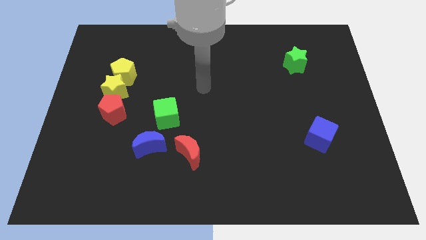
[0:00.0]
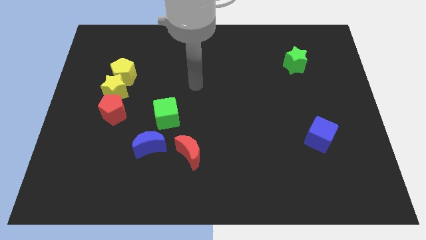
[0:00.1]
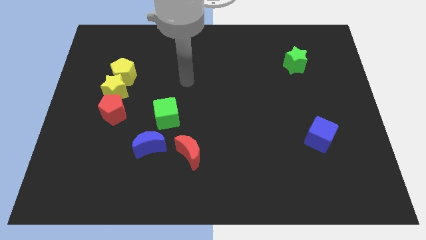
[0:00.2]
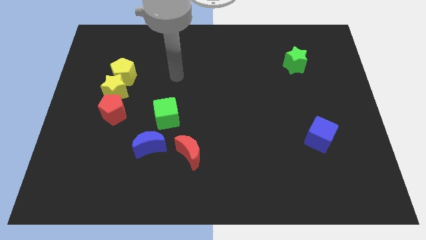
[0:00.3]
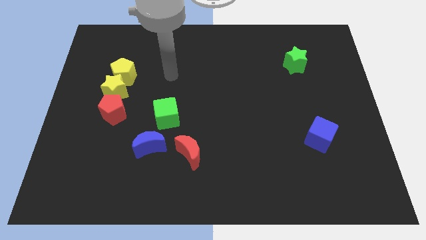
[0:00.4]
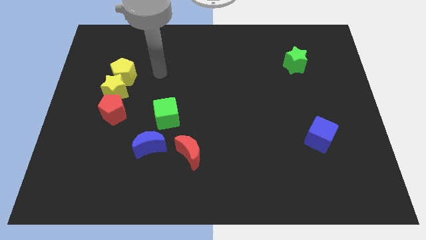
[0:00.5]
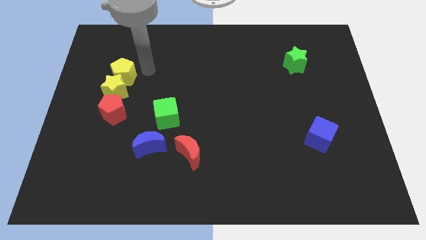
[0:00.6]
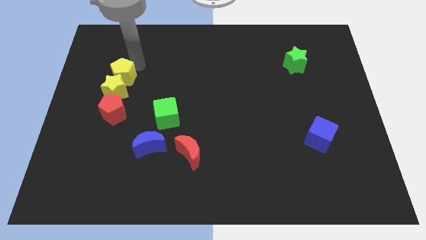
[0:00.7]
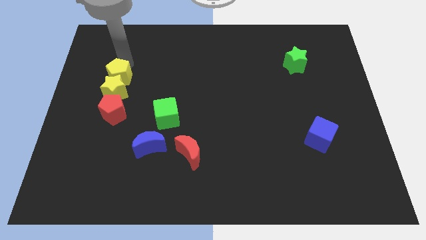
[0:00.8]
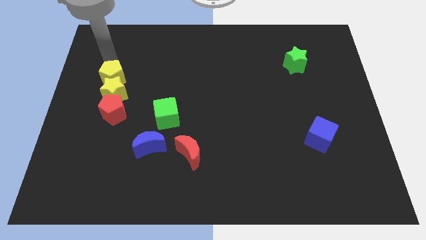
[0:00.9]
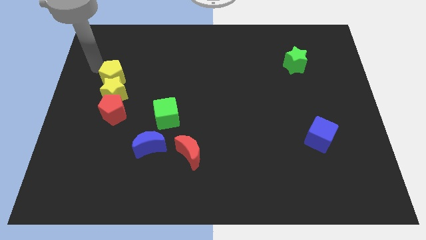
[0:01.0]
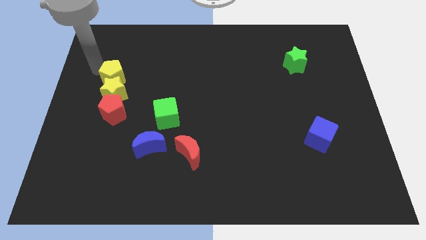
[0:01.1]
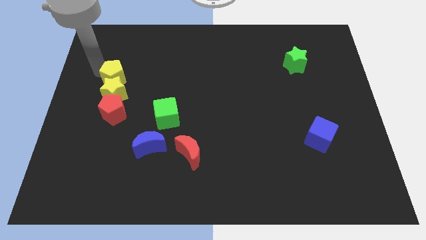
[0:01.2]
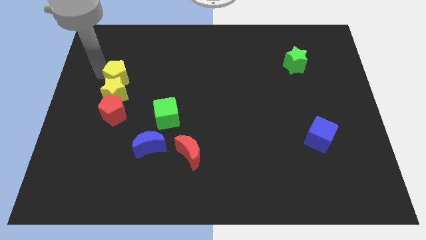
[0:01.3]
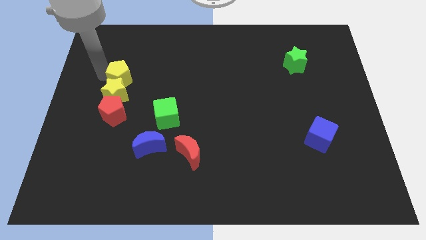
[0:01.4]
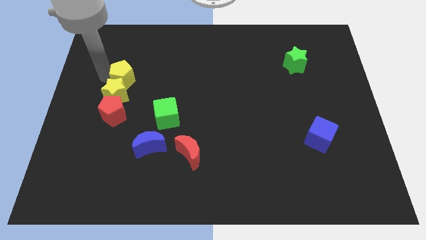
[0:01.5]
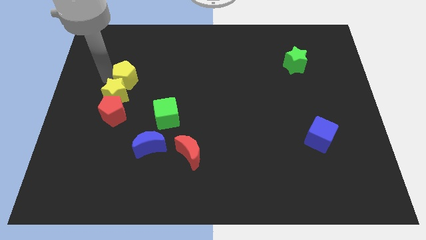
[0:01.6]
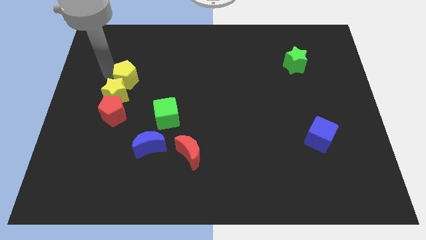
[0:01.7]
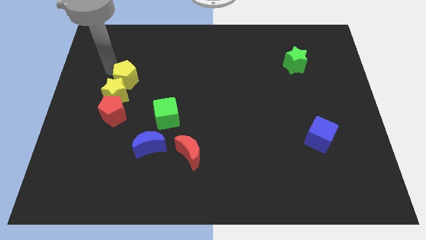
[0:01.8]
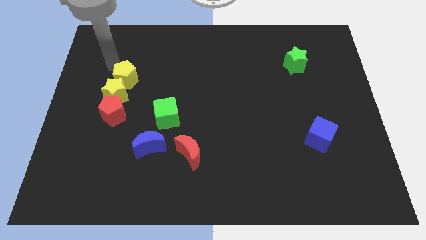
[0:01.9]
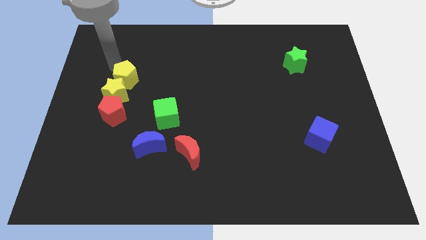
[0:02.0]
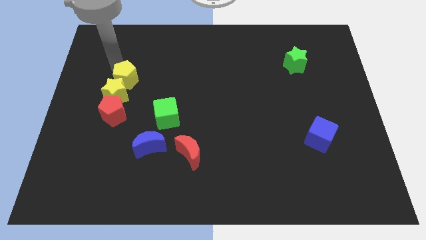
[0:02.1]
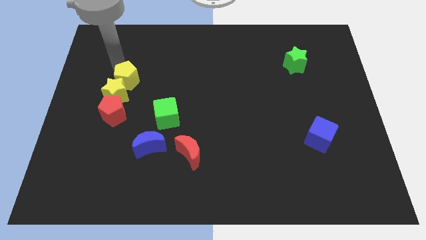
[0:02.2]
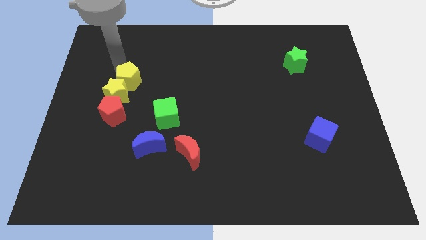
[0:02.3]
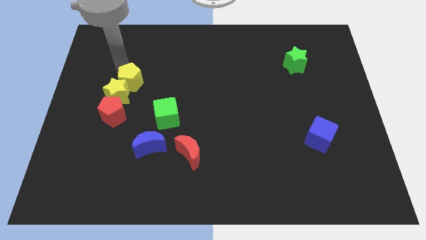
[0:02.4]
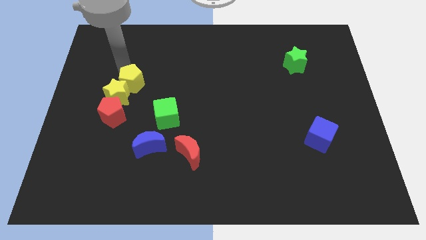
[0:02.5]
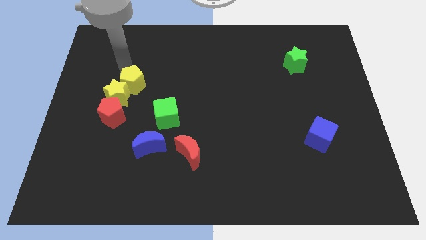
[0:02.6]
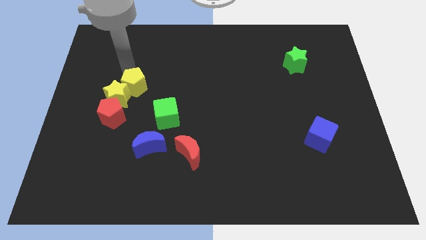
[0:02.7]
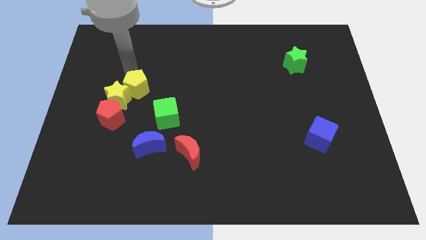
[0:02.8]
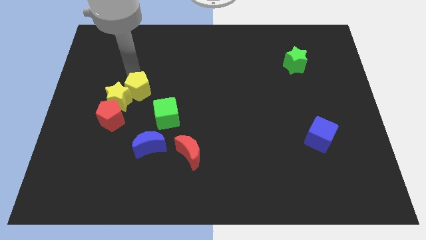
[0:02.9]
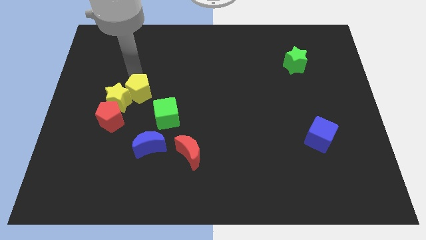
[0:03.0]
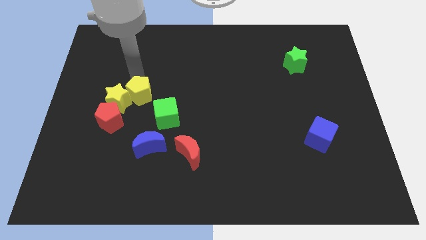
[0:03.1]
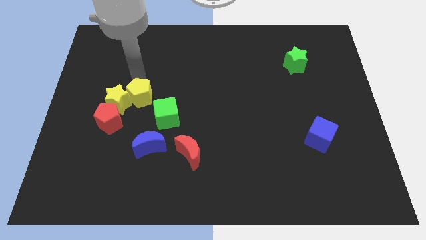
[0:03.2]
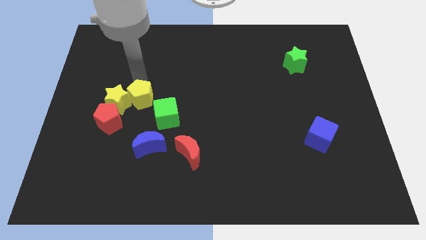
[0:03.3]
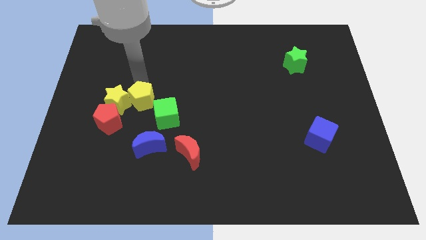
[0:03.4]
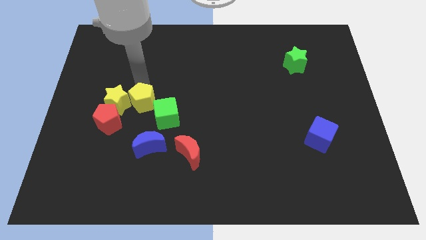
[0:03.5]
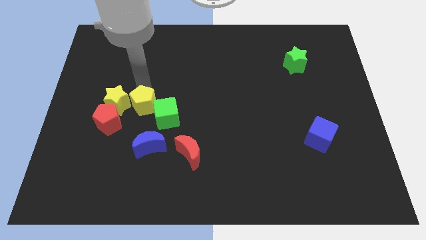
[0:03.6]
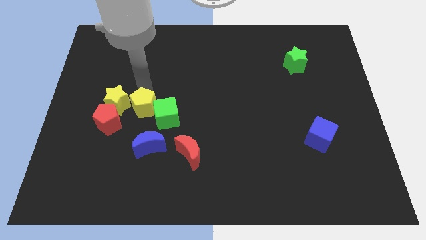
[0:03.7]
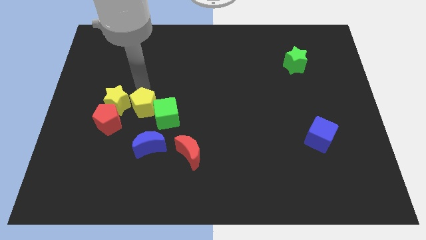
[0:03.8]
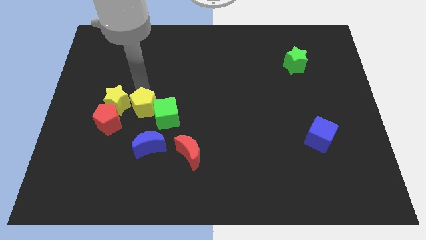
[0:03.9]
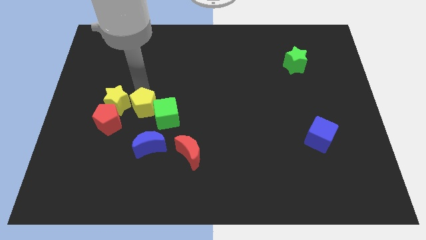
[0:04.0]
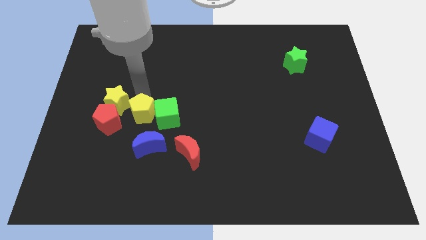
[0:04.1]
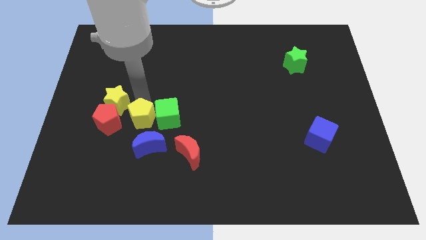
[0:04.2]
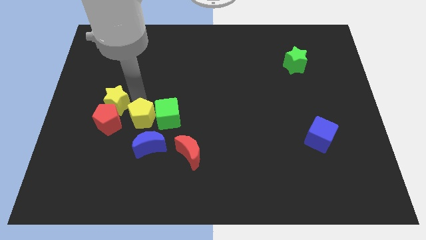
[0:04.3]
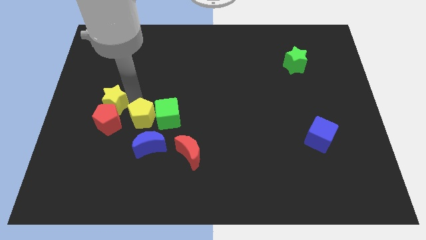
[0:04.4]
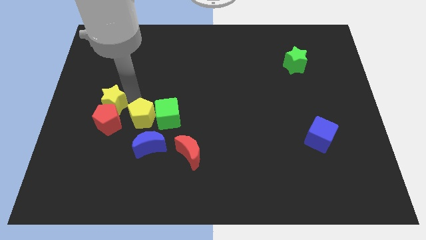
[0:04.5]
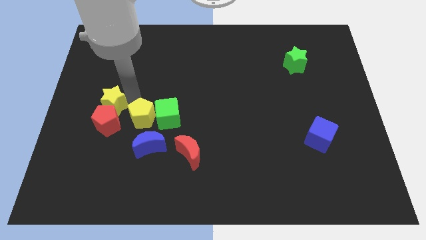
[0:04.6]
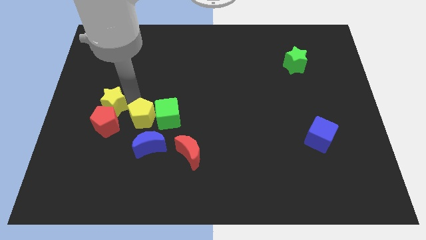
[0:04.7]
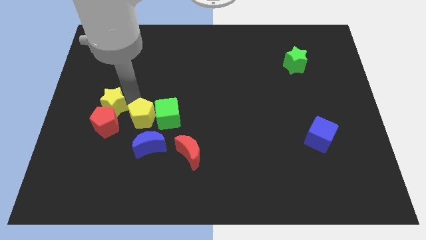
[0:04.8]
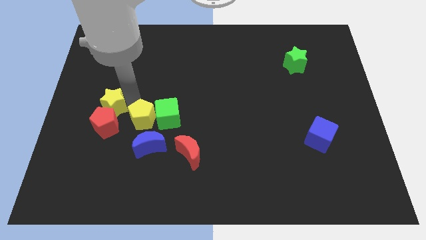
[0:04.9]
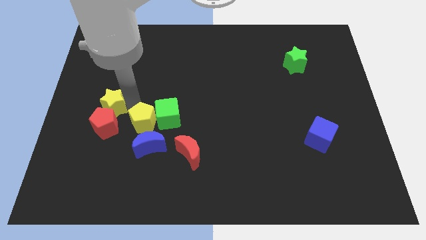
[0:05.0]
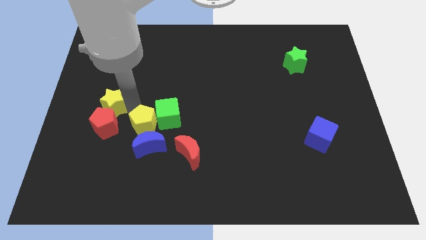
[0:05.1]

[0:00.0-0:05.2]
move the yellow pentagon close to the blue moon

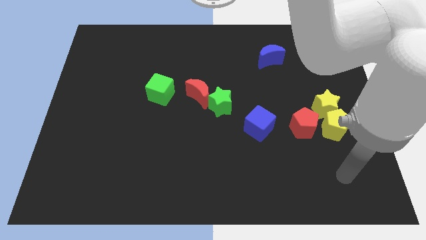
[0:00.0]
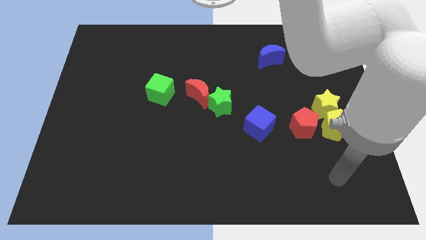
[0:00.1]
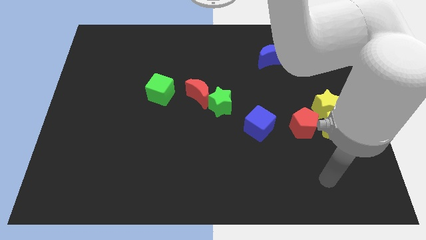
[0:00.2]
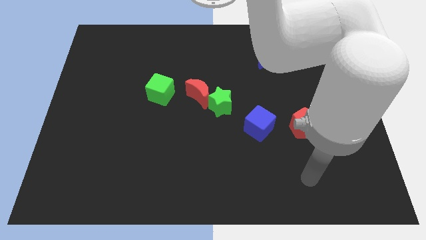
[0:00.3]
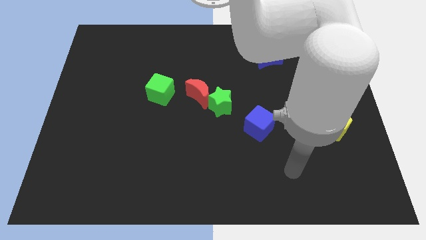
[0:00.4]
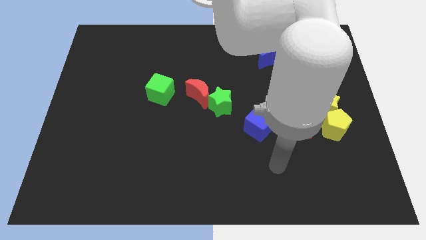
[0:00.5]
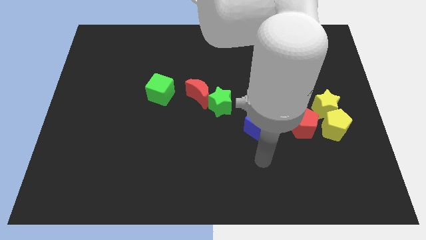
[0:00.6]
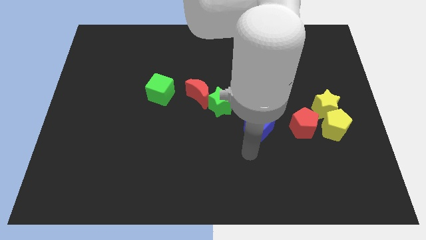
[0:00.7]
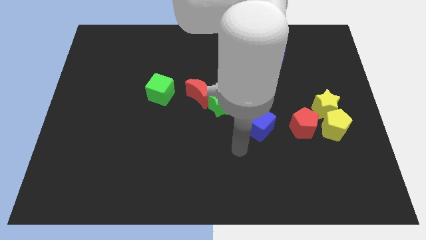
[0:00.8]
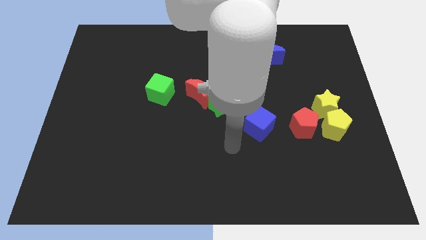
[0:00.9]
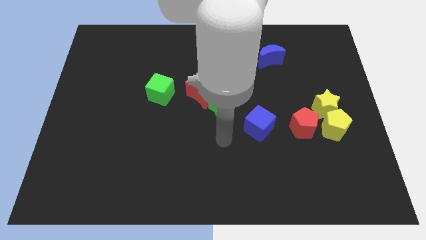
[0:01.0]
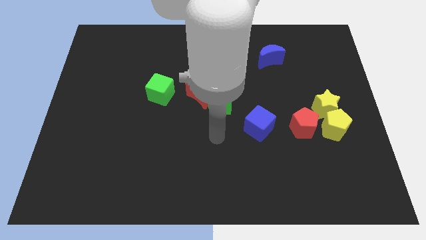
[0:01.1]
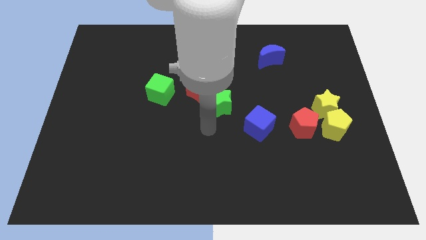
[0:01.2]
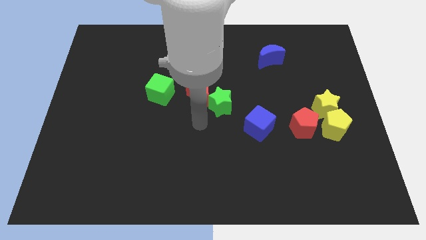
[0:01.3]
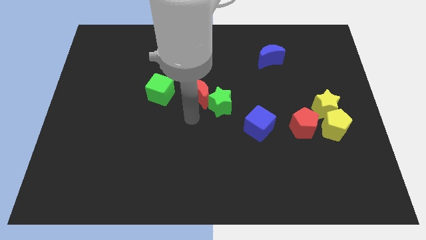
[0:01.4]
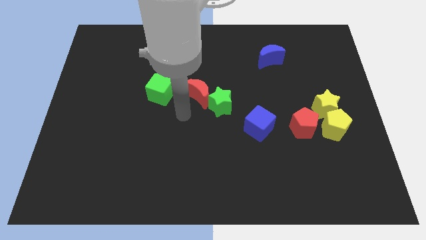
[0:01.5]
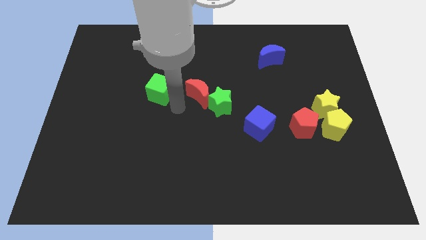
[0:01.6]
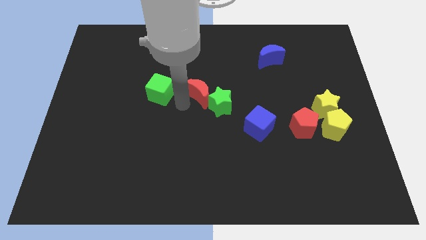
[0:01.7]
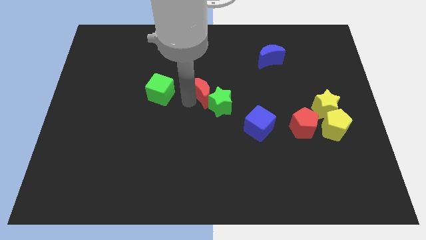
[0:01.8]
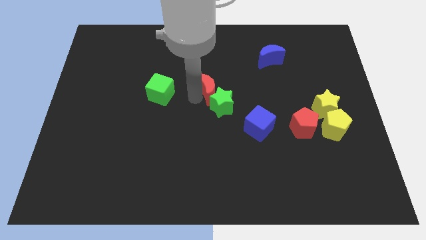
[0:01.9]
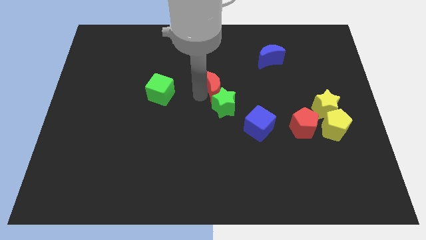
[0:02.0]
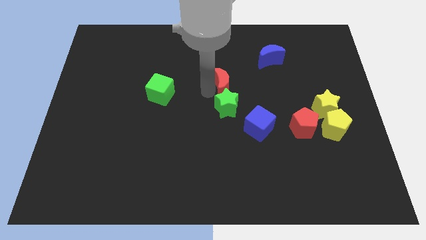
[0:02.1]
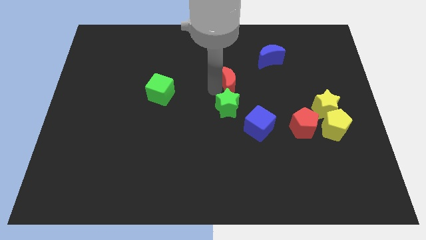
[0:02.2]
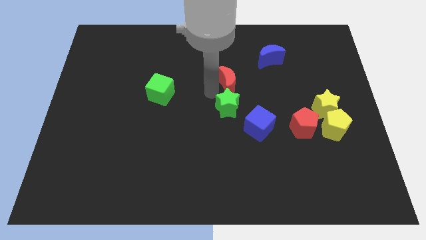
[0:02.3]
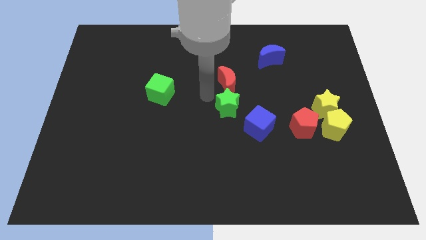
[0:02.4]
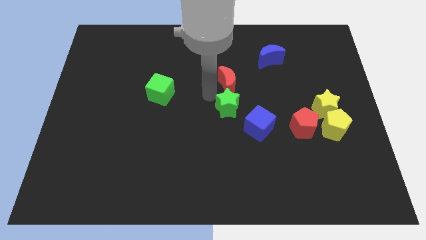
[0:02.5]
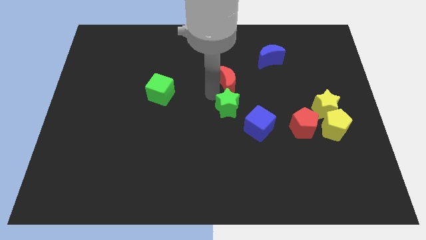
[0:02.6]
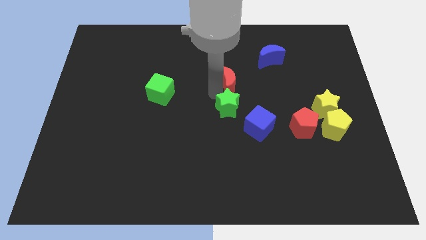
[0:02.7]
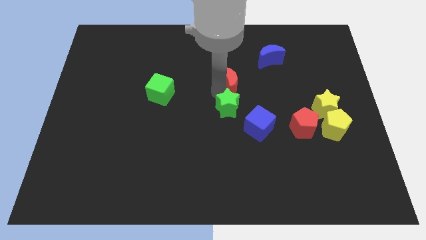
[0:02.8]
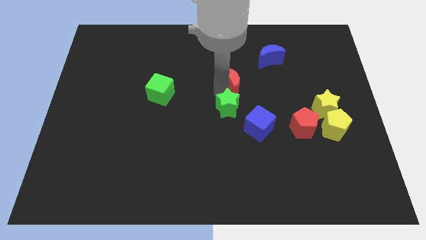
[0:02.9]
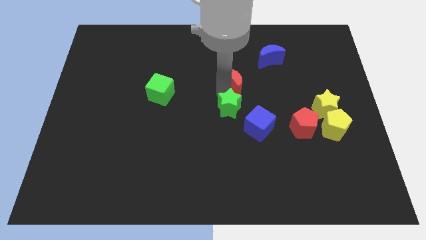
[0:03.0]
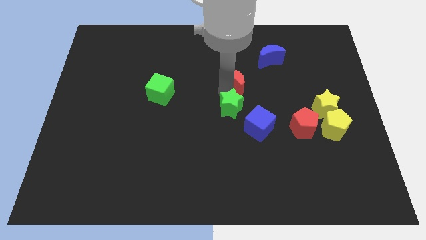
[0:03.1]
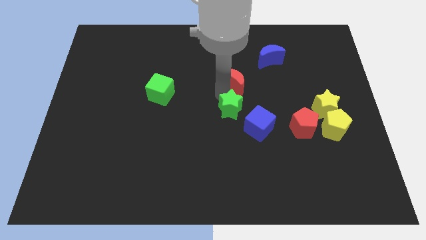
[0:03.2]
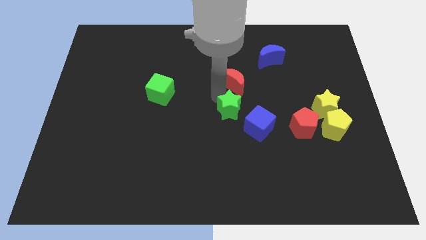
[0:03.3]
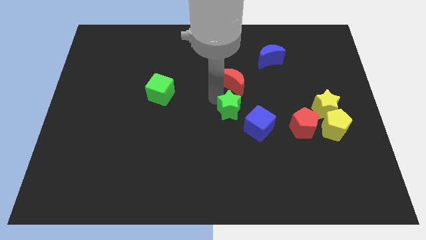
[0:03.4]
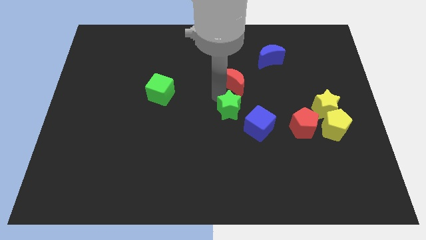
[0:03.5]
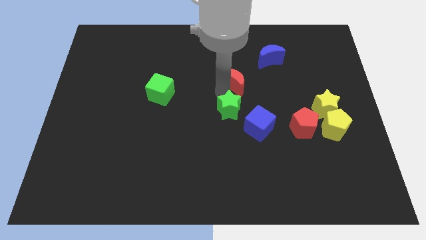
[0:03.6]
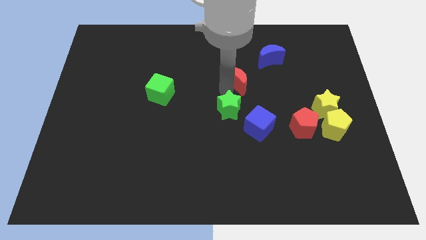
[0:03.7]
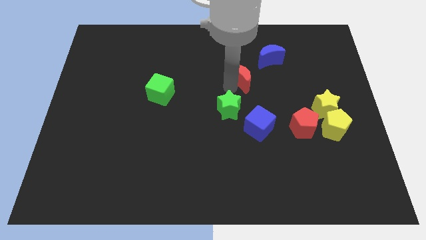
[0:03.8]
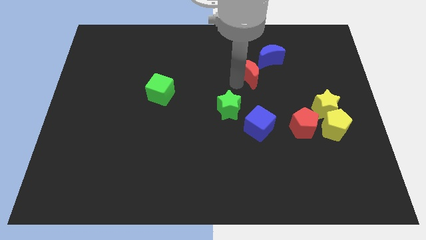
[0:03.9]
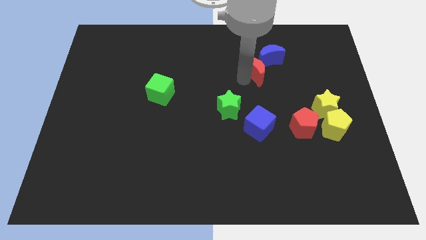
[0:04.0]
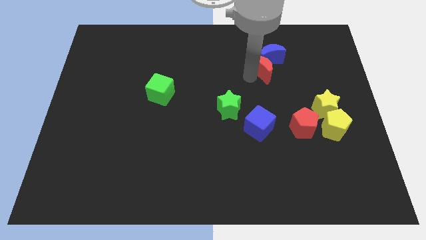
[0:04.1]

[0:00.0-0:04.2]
slide the red moon to the blue moon
